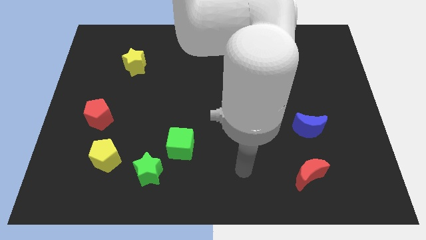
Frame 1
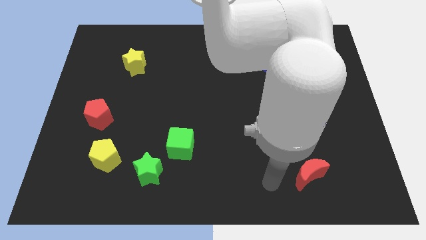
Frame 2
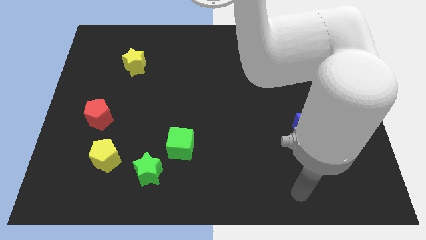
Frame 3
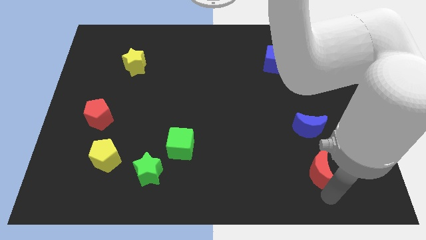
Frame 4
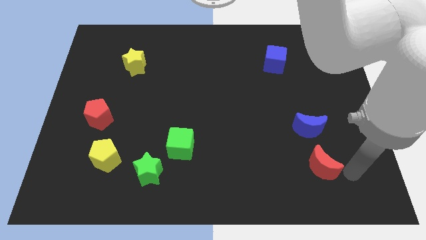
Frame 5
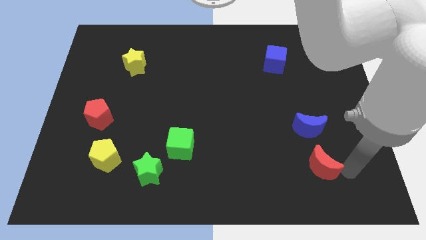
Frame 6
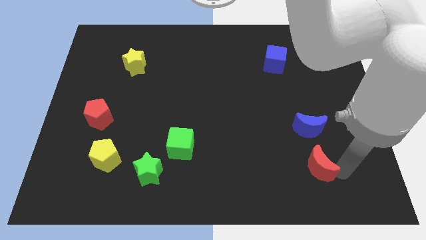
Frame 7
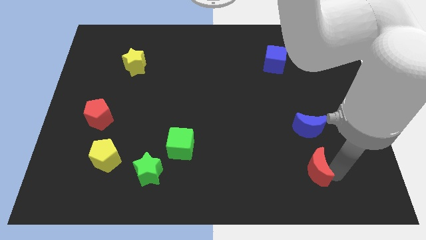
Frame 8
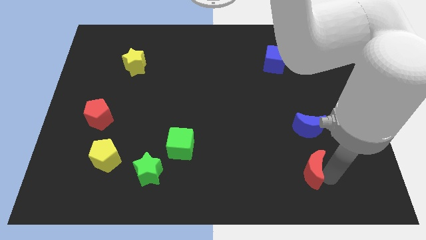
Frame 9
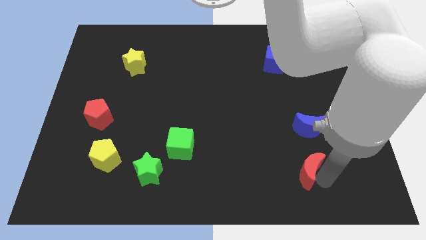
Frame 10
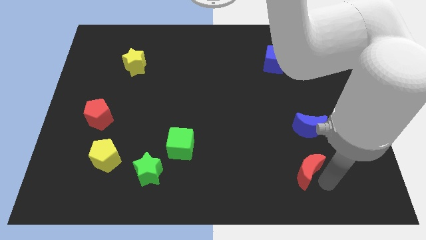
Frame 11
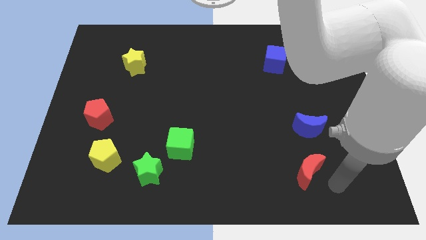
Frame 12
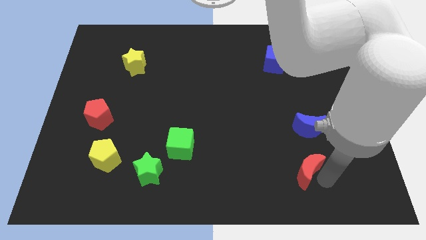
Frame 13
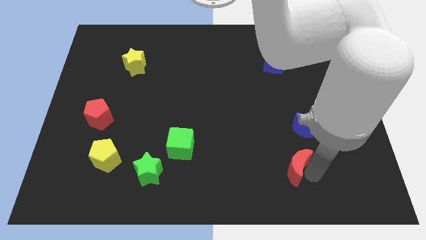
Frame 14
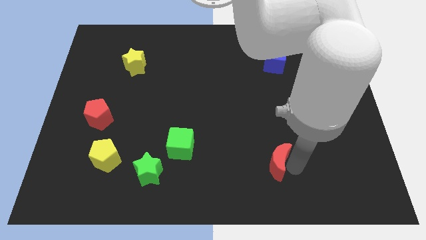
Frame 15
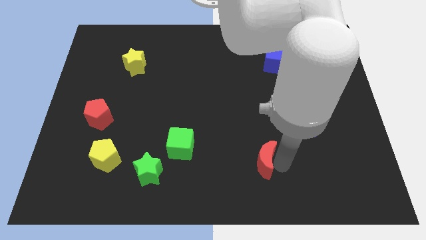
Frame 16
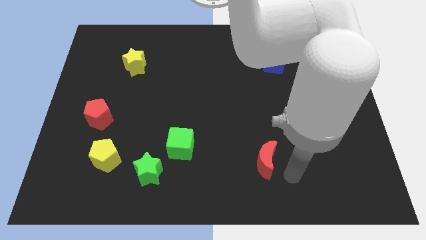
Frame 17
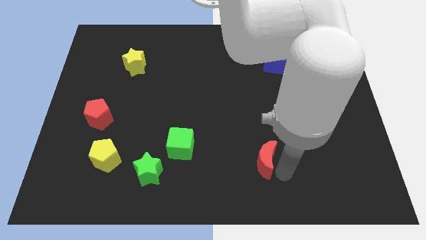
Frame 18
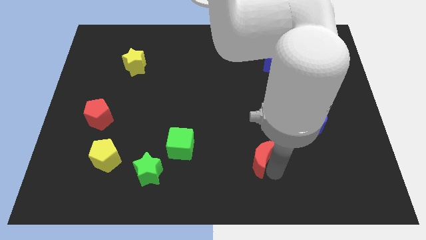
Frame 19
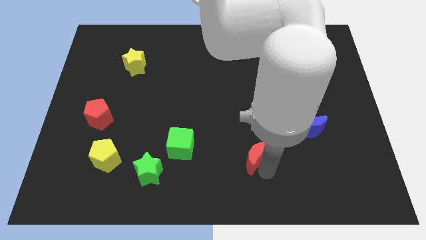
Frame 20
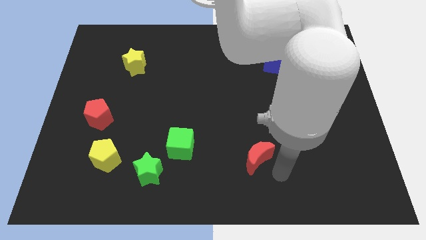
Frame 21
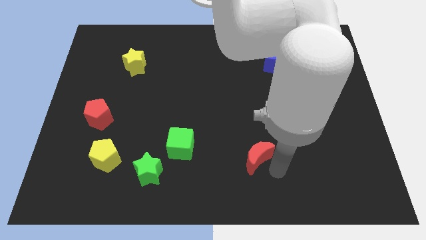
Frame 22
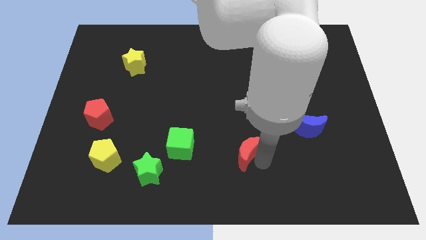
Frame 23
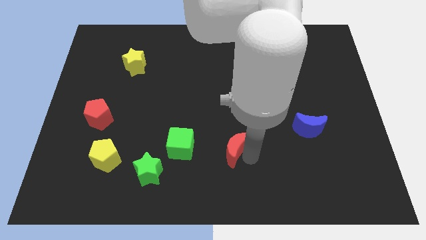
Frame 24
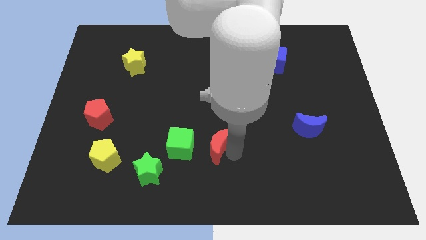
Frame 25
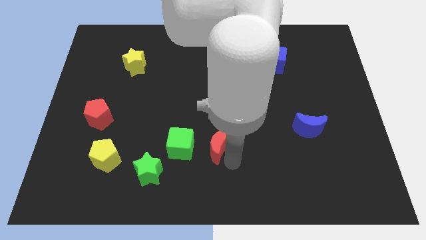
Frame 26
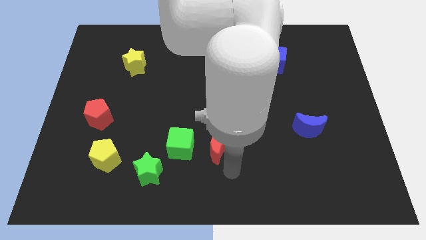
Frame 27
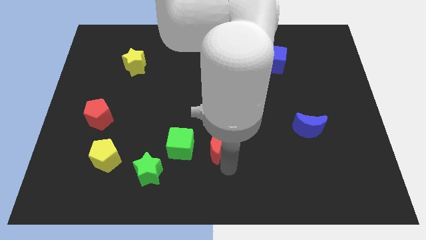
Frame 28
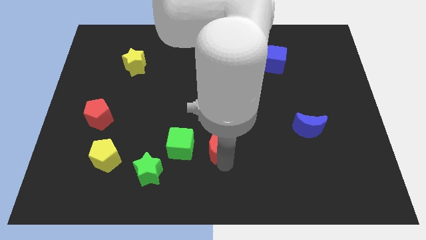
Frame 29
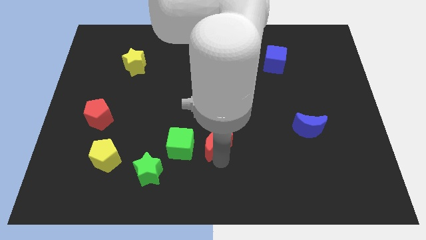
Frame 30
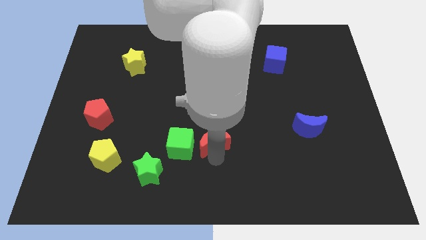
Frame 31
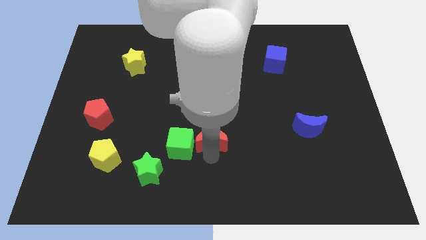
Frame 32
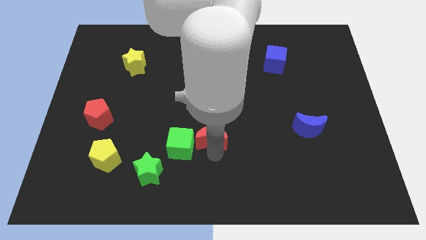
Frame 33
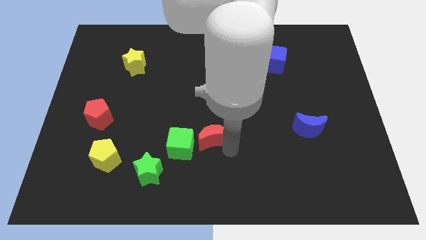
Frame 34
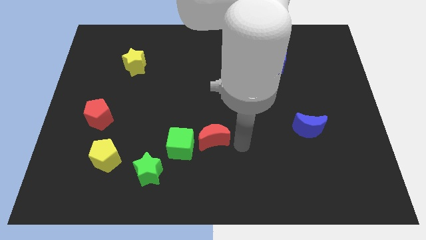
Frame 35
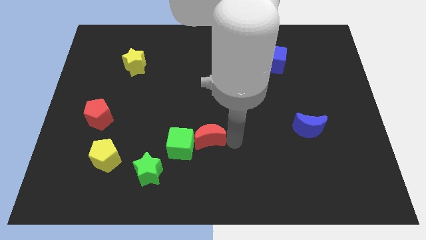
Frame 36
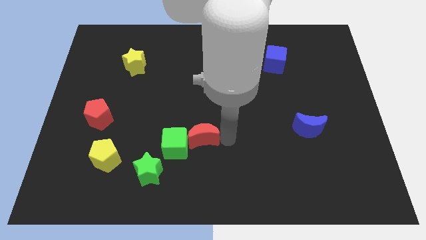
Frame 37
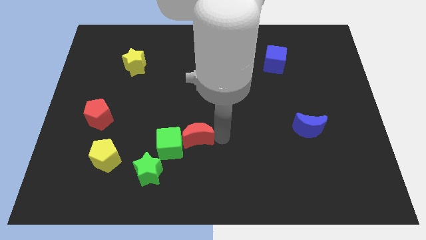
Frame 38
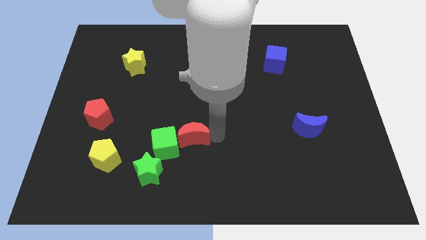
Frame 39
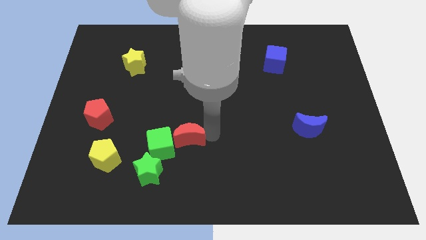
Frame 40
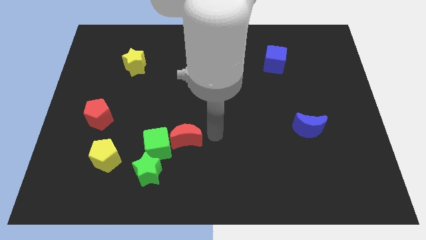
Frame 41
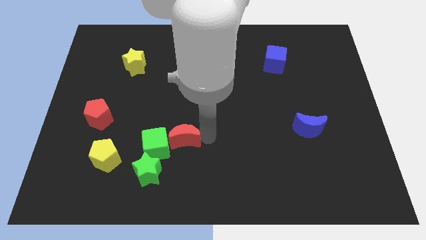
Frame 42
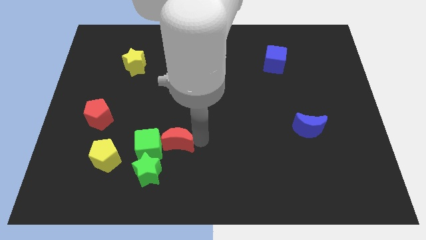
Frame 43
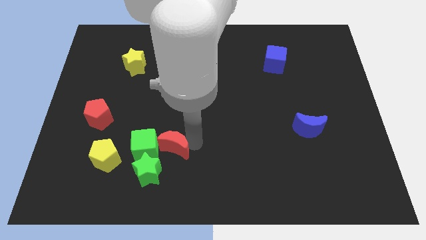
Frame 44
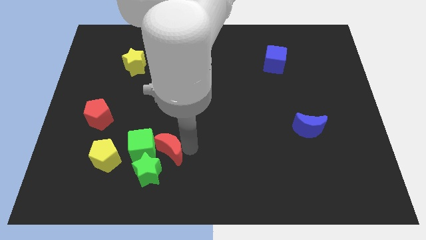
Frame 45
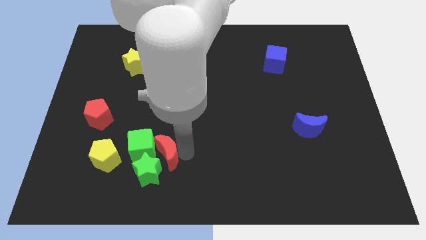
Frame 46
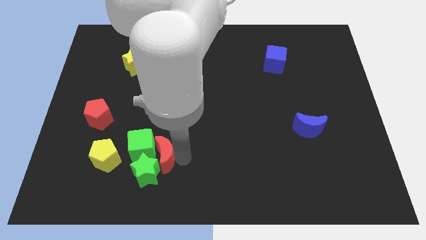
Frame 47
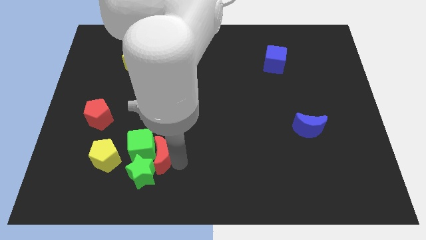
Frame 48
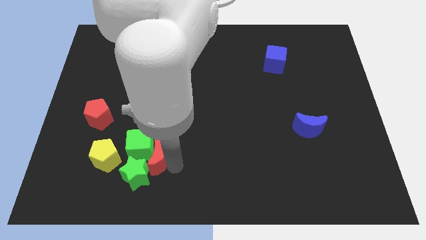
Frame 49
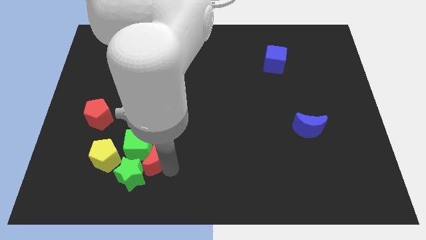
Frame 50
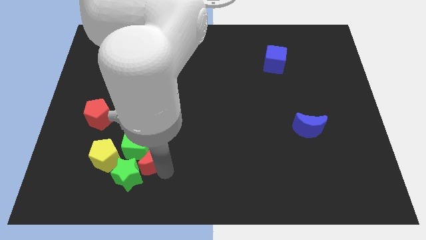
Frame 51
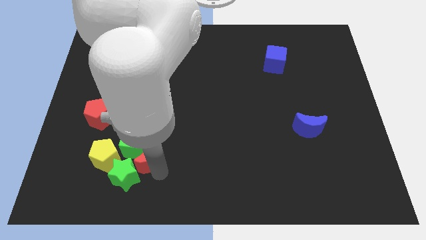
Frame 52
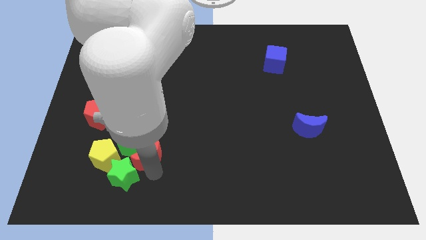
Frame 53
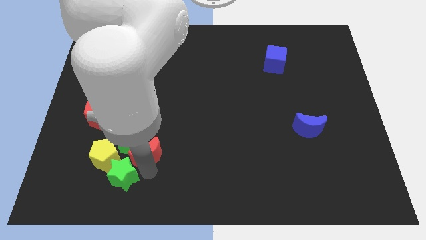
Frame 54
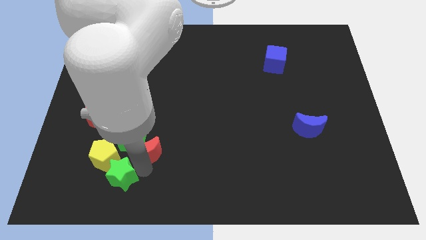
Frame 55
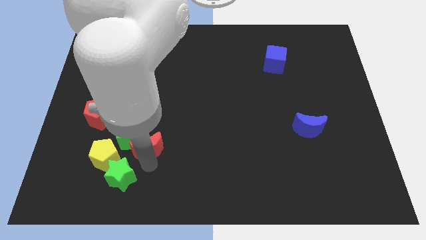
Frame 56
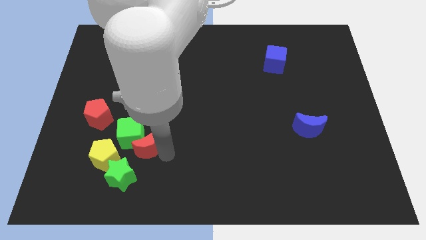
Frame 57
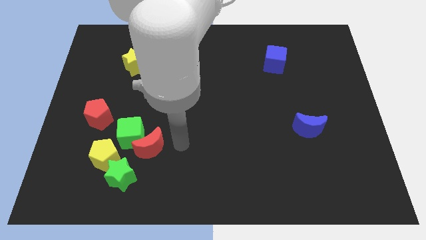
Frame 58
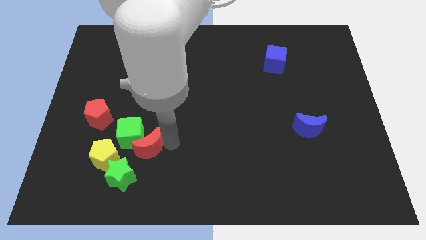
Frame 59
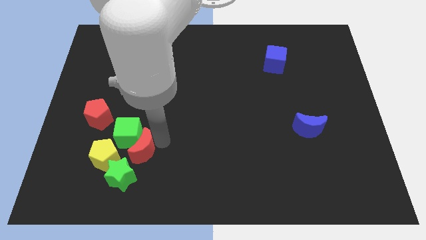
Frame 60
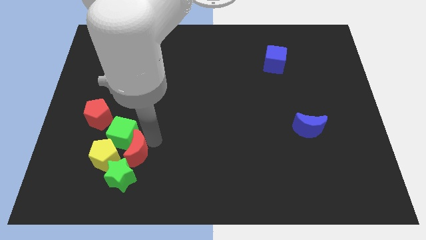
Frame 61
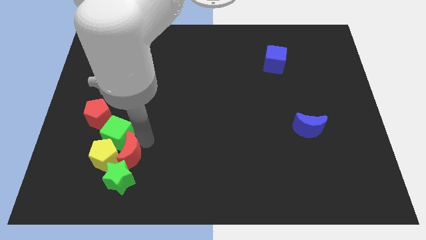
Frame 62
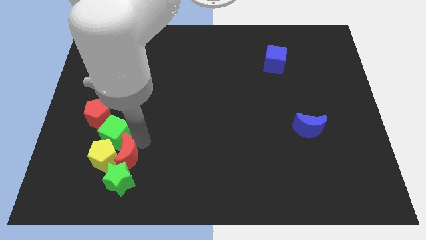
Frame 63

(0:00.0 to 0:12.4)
slide the red moon to the top left side of the green star
